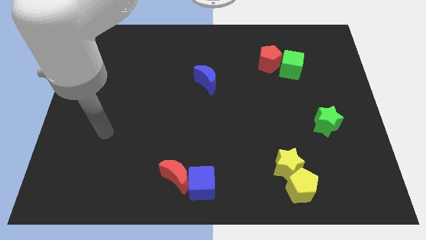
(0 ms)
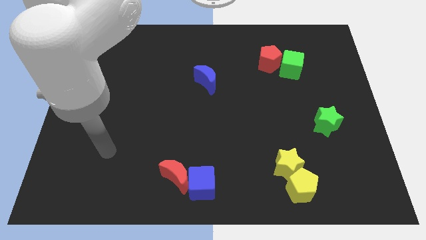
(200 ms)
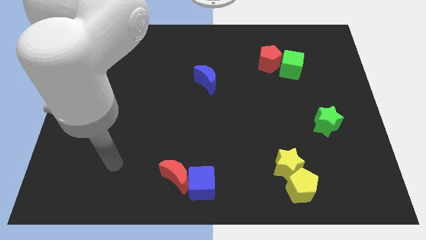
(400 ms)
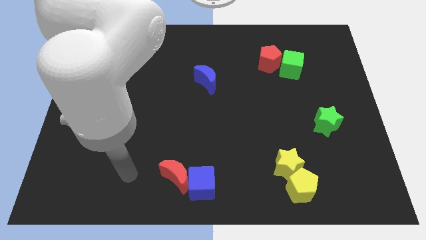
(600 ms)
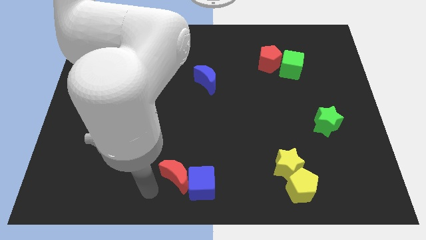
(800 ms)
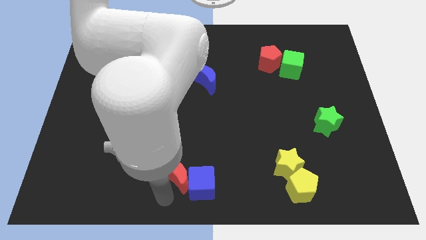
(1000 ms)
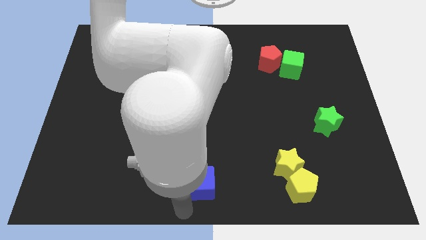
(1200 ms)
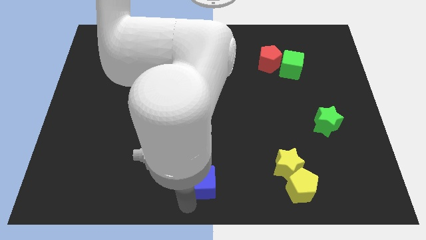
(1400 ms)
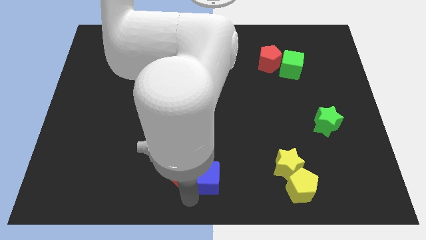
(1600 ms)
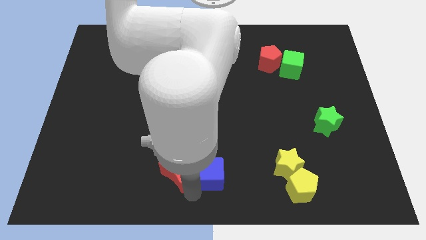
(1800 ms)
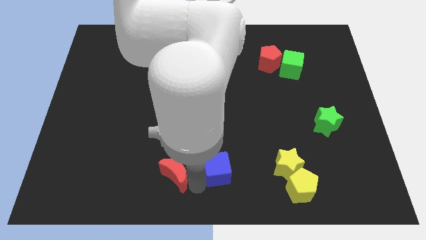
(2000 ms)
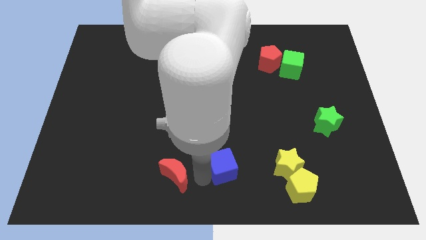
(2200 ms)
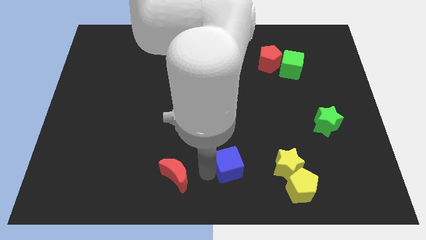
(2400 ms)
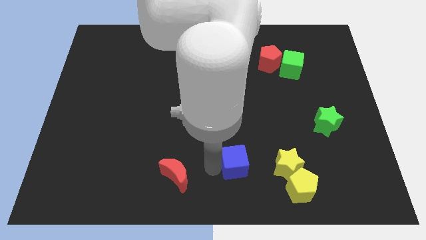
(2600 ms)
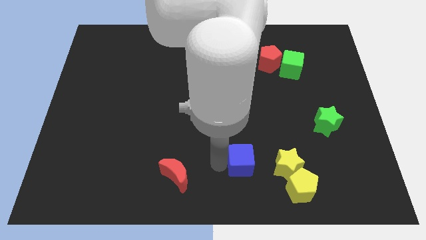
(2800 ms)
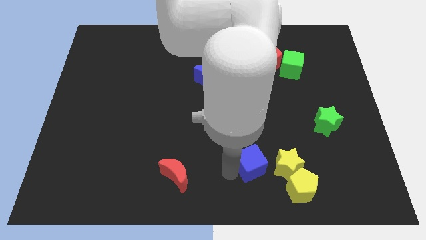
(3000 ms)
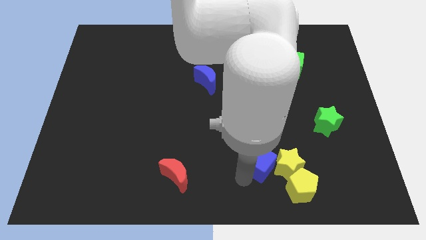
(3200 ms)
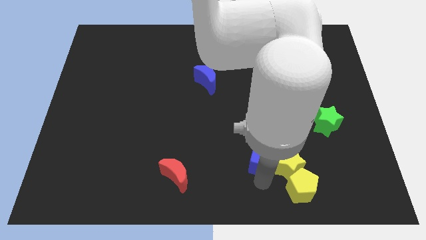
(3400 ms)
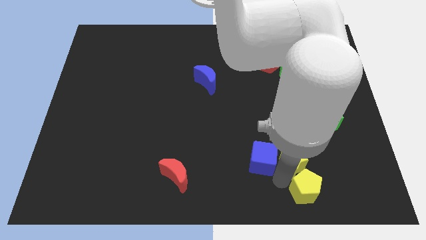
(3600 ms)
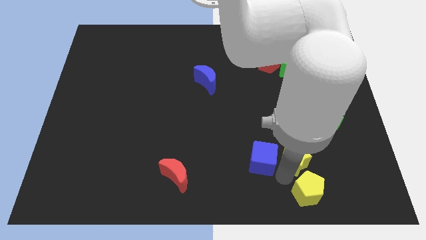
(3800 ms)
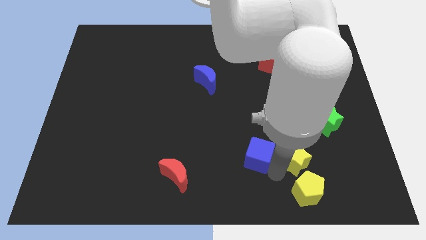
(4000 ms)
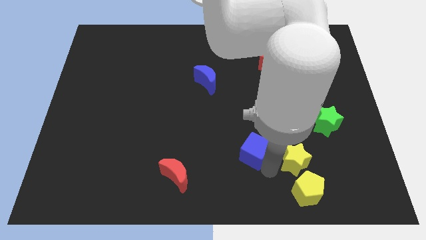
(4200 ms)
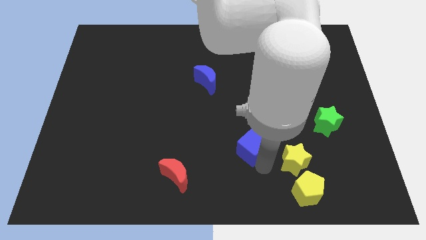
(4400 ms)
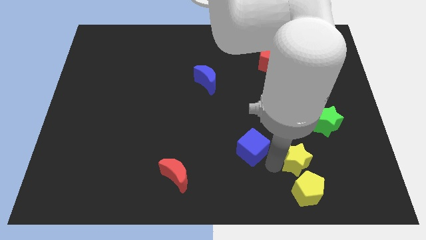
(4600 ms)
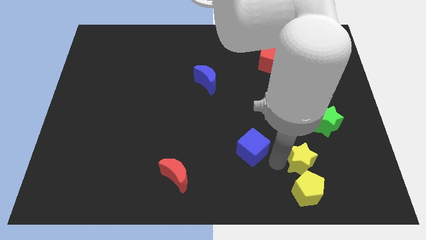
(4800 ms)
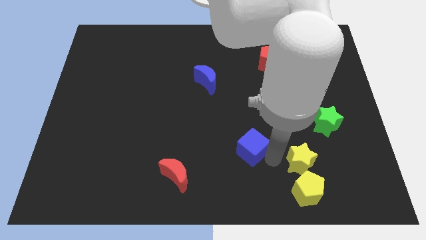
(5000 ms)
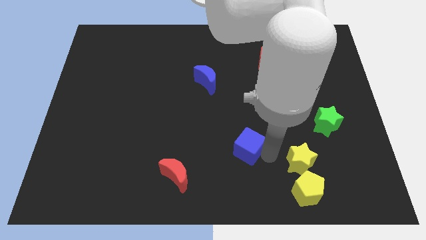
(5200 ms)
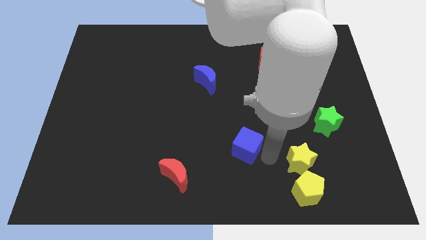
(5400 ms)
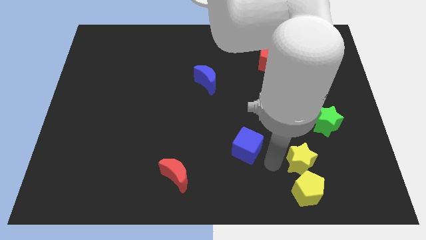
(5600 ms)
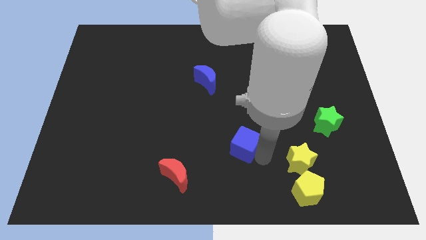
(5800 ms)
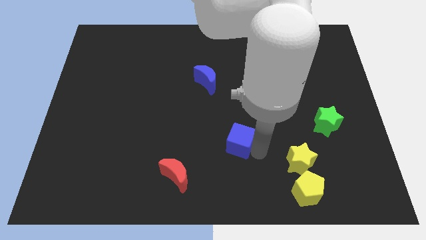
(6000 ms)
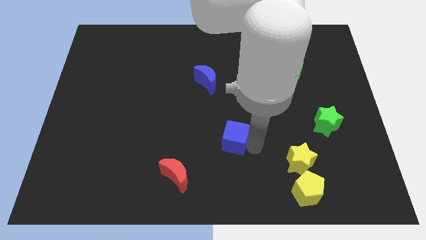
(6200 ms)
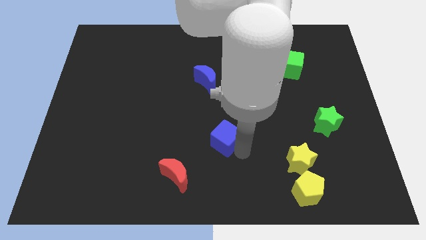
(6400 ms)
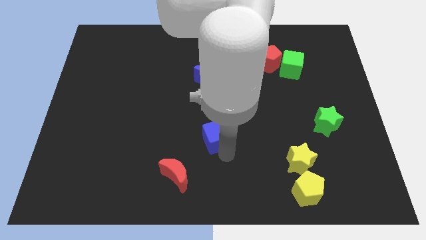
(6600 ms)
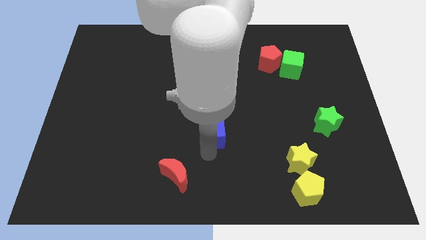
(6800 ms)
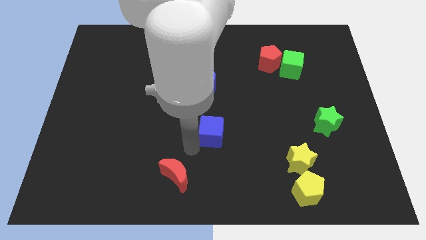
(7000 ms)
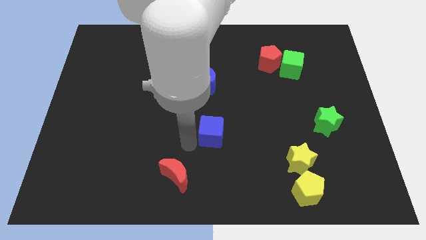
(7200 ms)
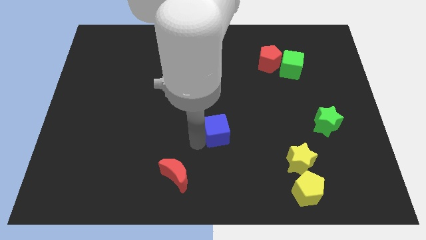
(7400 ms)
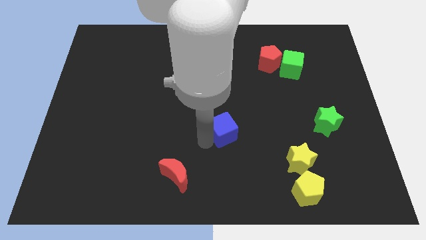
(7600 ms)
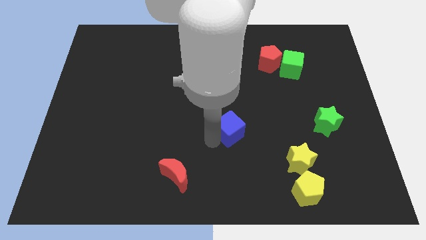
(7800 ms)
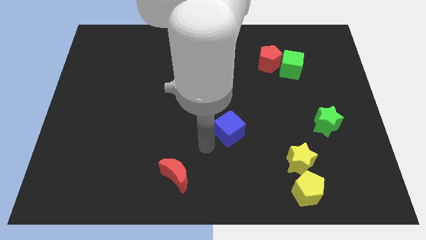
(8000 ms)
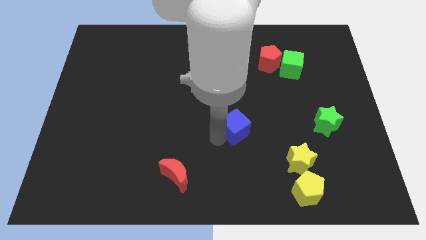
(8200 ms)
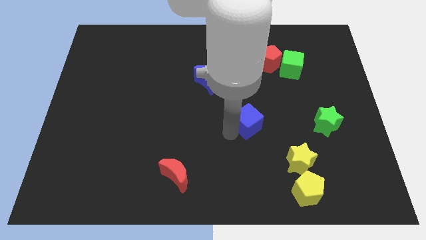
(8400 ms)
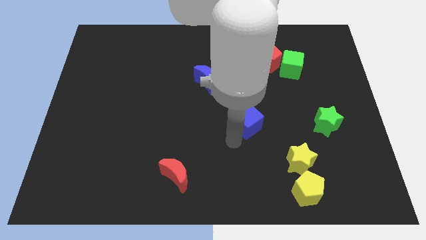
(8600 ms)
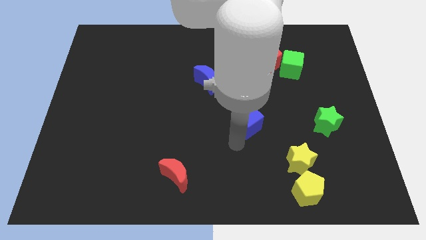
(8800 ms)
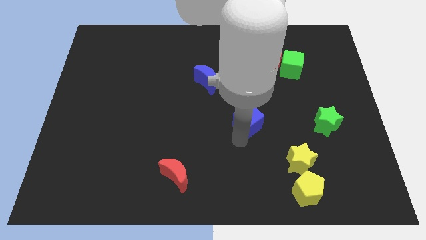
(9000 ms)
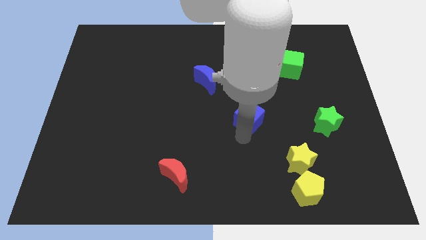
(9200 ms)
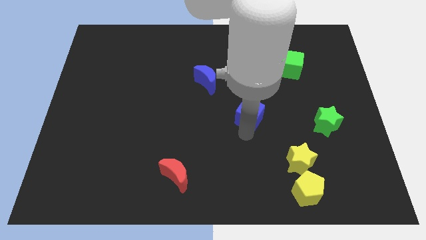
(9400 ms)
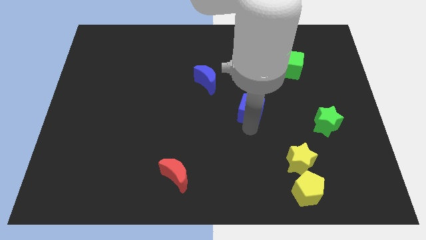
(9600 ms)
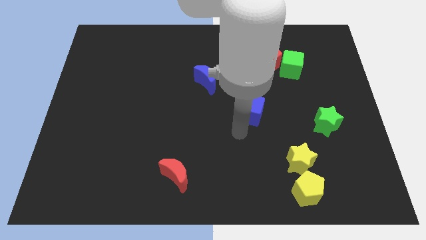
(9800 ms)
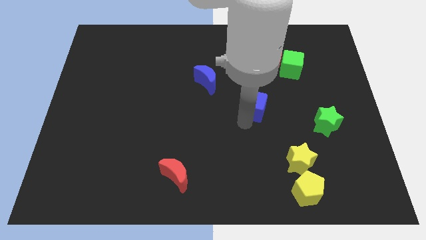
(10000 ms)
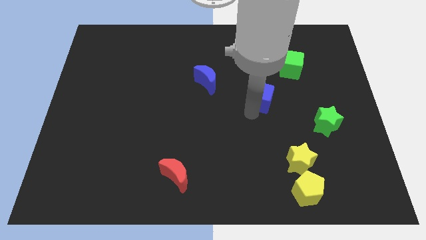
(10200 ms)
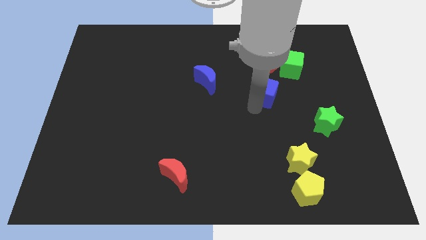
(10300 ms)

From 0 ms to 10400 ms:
slide the blue cube to the bottom left side of the green cube

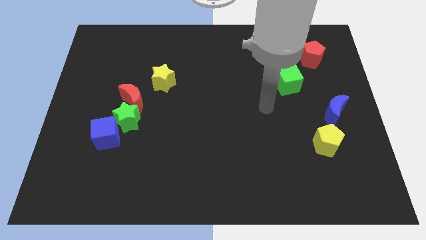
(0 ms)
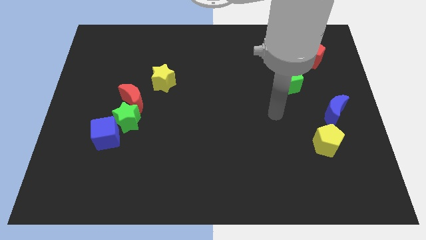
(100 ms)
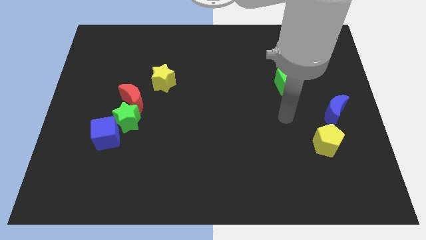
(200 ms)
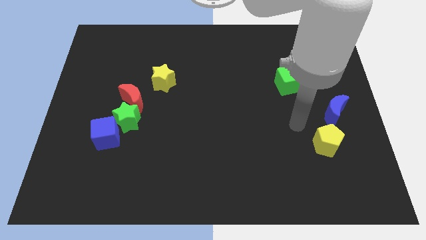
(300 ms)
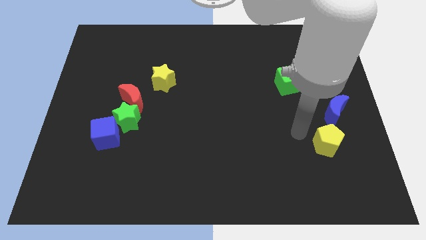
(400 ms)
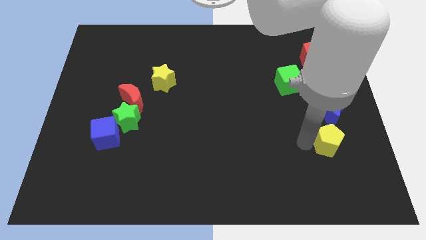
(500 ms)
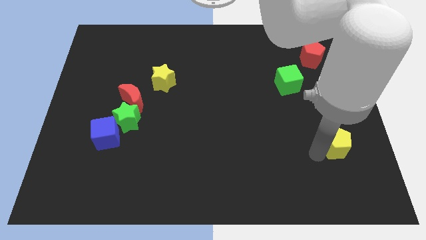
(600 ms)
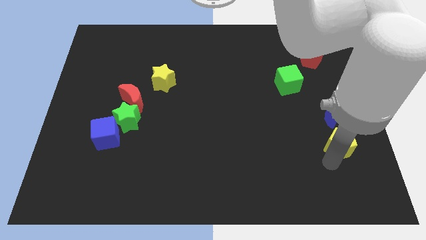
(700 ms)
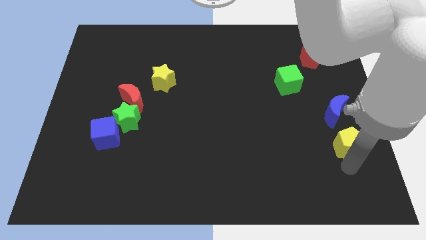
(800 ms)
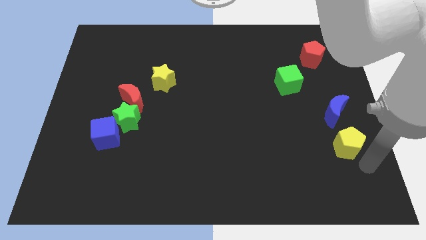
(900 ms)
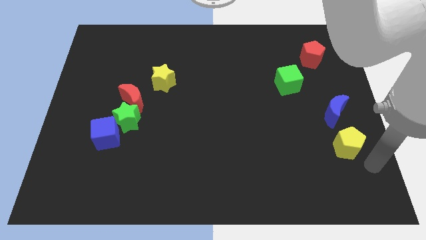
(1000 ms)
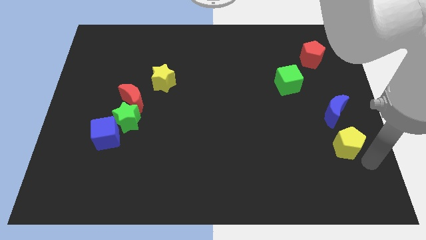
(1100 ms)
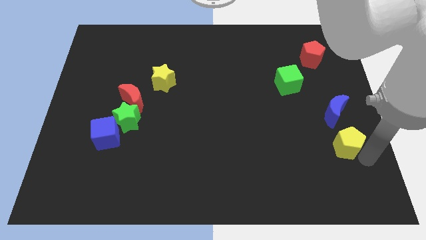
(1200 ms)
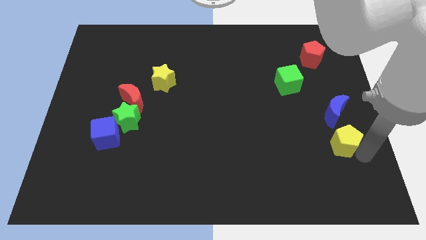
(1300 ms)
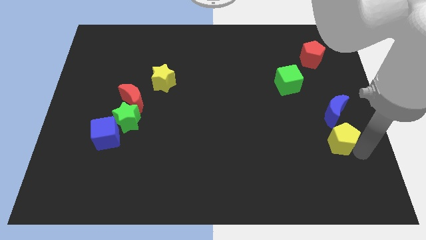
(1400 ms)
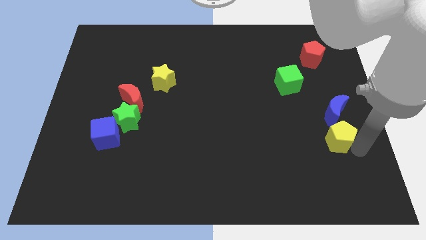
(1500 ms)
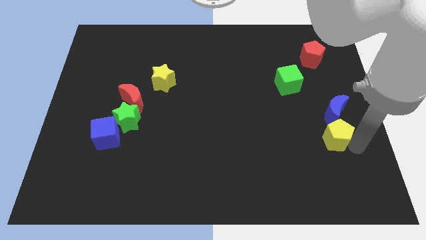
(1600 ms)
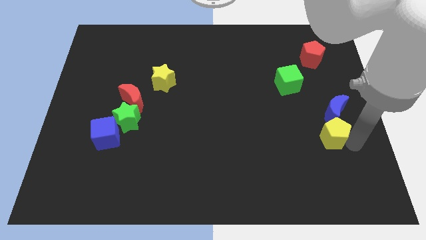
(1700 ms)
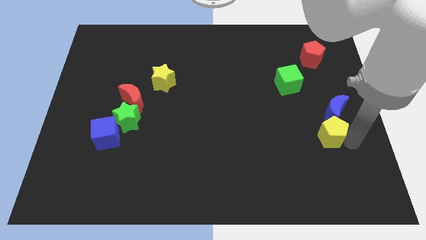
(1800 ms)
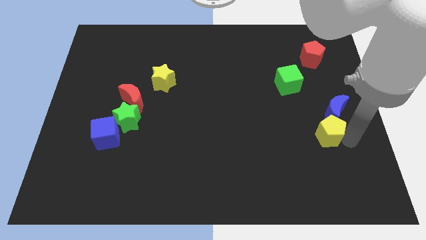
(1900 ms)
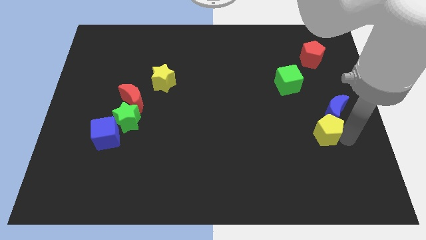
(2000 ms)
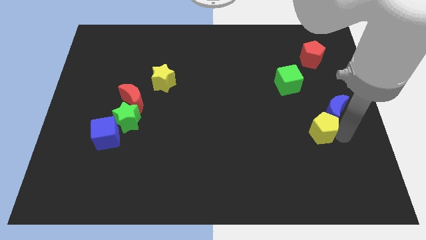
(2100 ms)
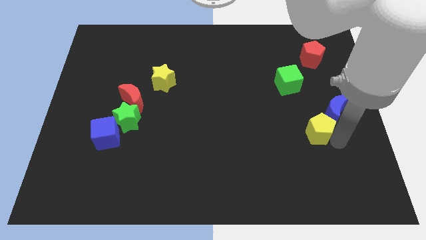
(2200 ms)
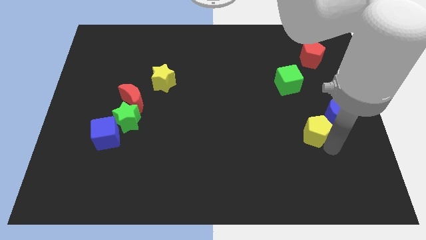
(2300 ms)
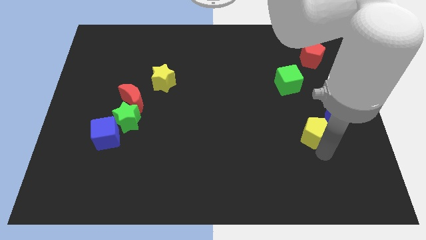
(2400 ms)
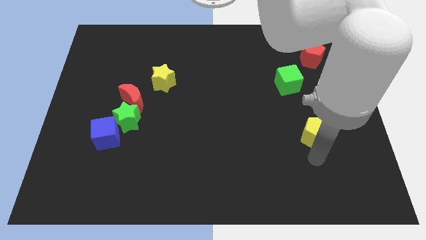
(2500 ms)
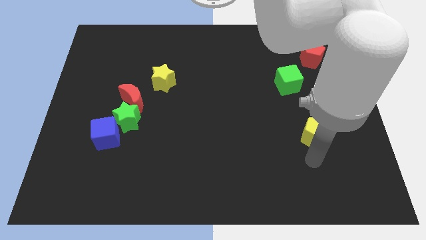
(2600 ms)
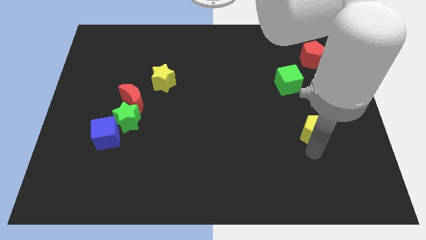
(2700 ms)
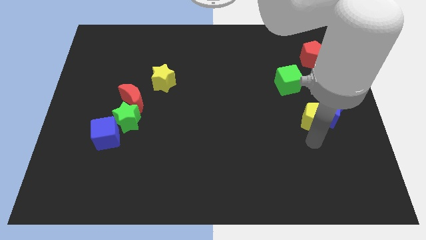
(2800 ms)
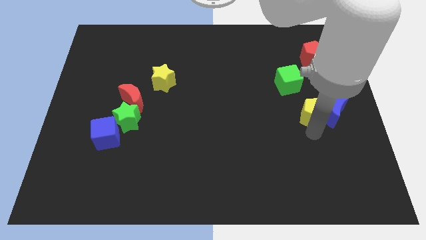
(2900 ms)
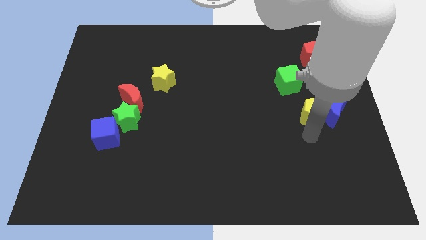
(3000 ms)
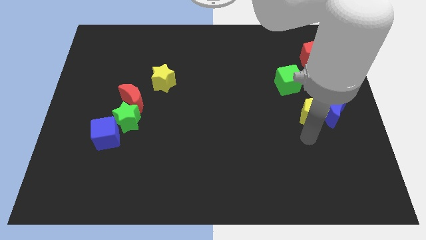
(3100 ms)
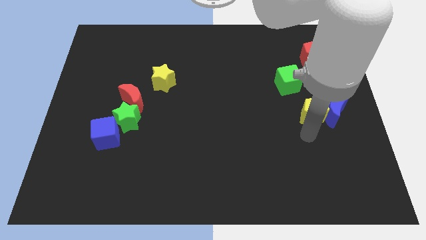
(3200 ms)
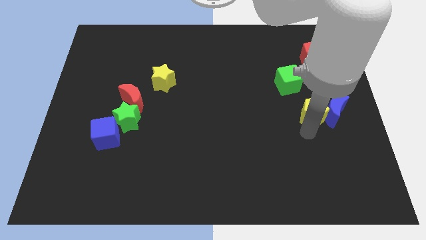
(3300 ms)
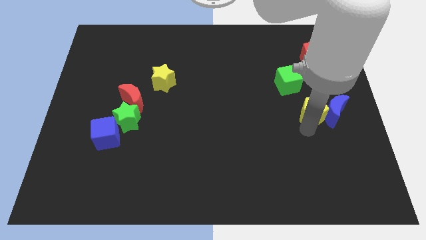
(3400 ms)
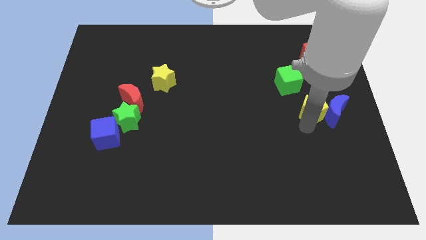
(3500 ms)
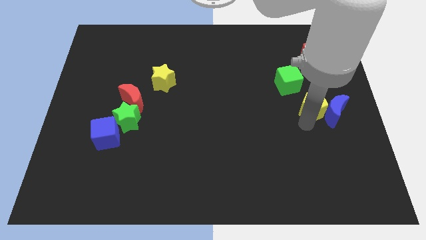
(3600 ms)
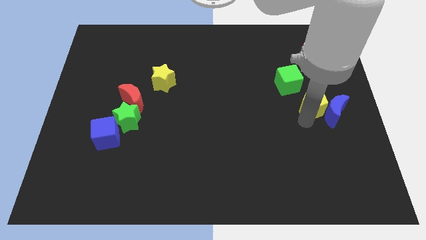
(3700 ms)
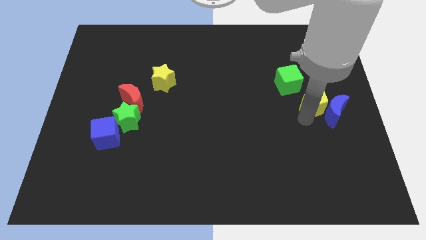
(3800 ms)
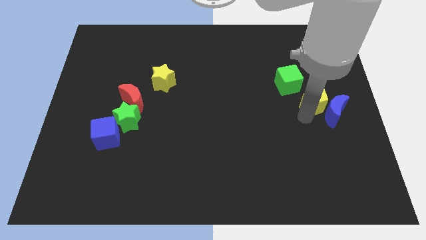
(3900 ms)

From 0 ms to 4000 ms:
push the yellow pentagon to the top side of the blue moon
